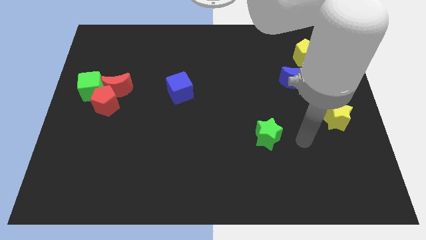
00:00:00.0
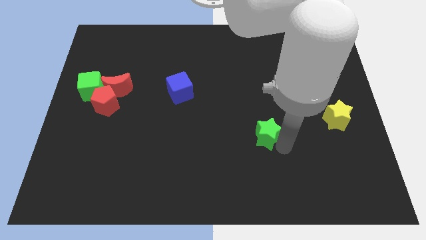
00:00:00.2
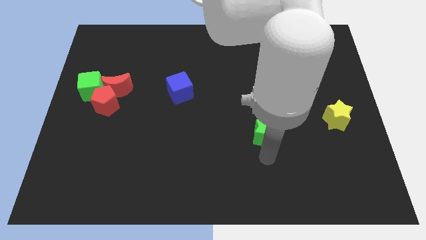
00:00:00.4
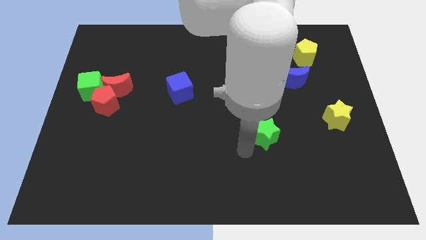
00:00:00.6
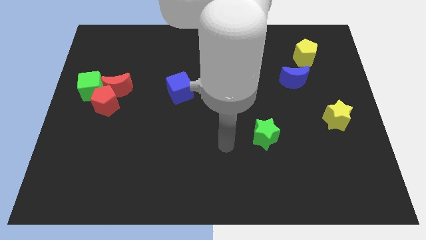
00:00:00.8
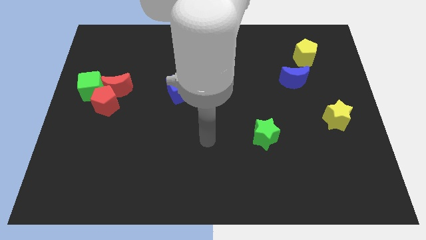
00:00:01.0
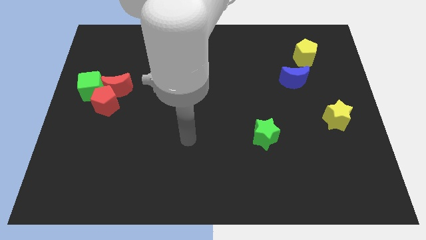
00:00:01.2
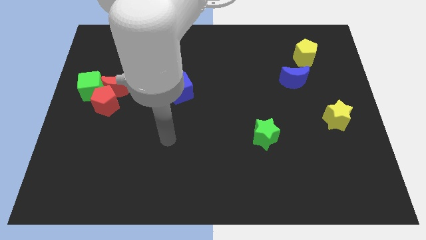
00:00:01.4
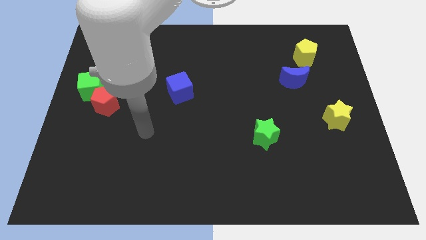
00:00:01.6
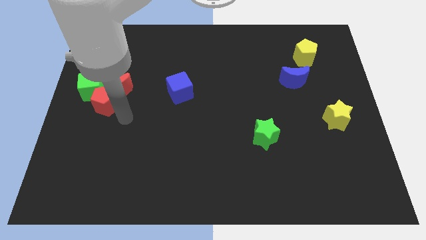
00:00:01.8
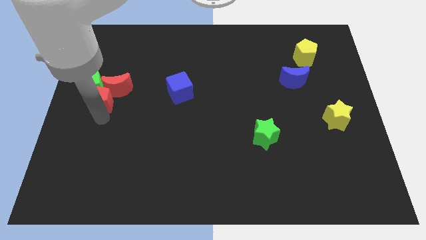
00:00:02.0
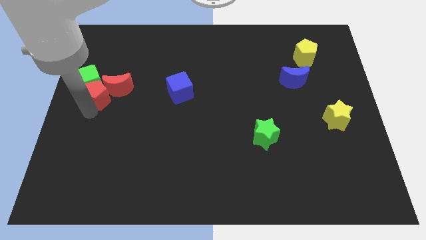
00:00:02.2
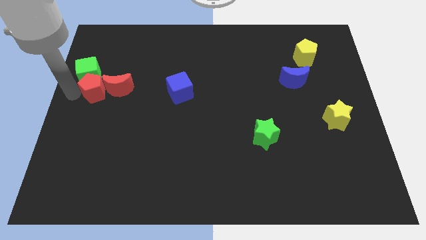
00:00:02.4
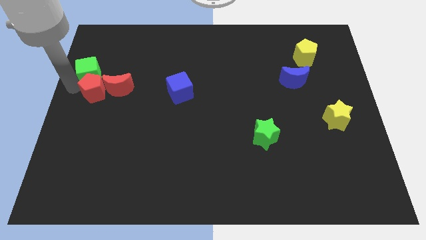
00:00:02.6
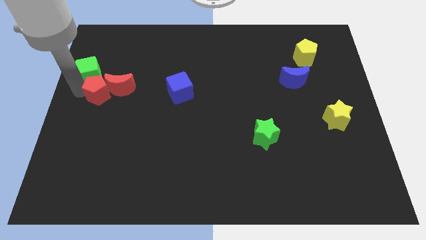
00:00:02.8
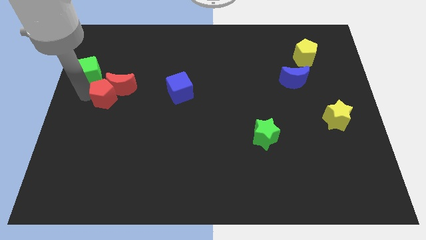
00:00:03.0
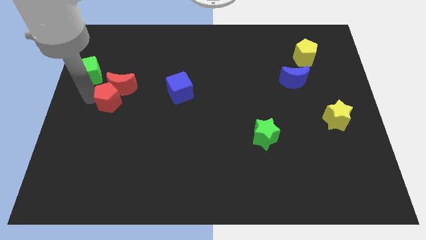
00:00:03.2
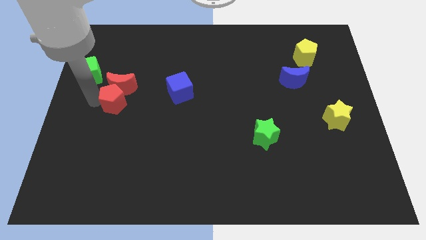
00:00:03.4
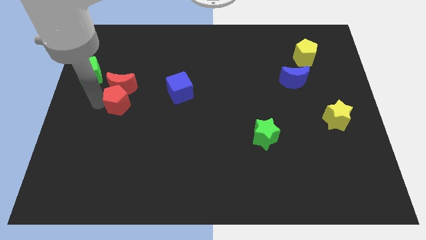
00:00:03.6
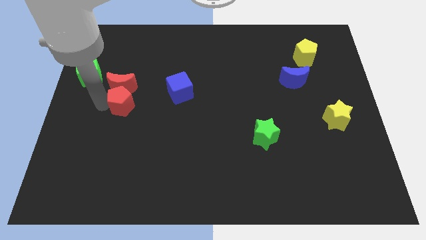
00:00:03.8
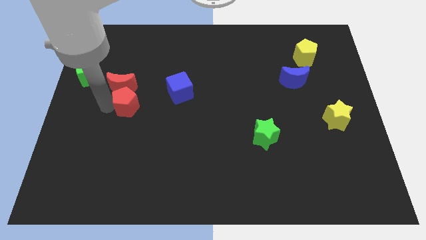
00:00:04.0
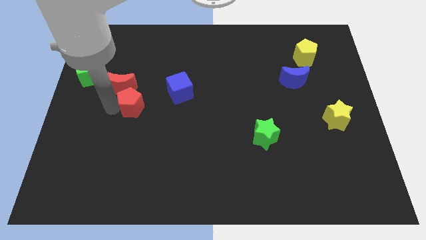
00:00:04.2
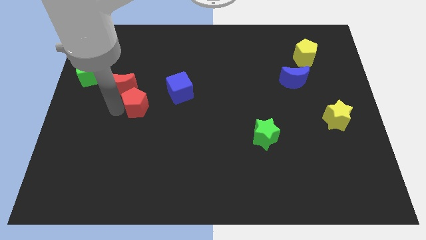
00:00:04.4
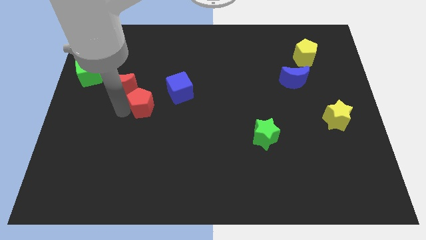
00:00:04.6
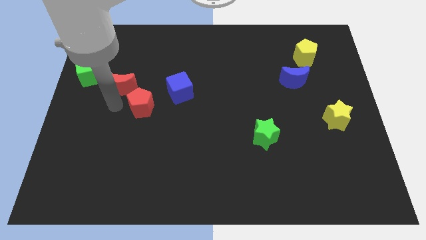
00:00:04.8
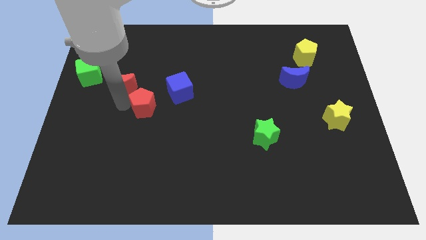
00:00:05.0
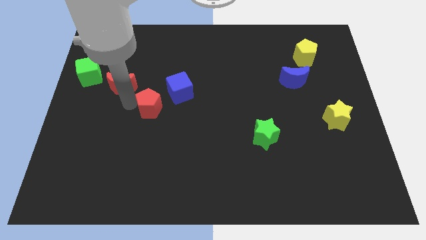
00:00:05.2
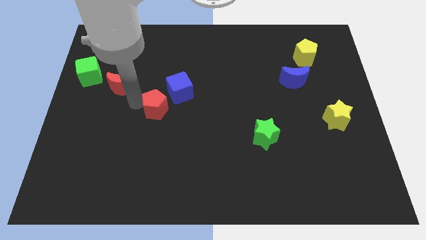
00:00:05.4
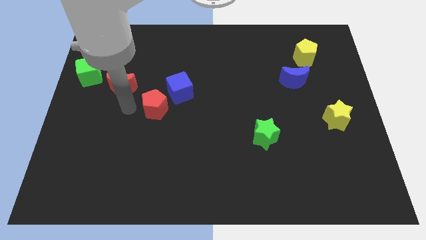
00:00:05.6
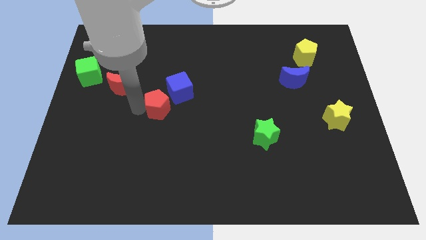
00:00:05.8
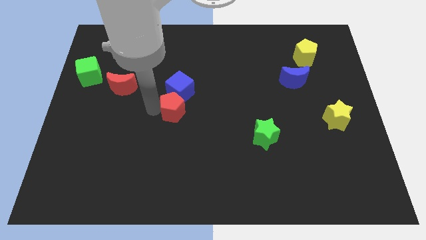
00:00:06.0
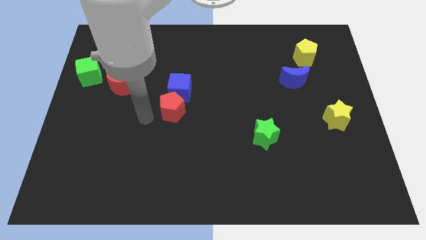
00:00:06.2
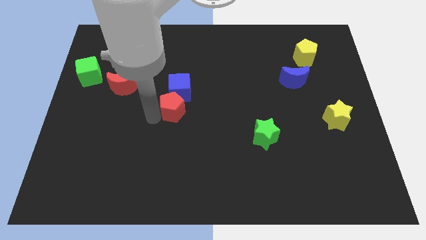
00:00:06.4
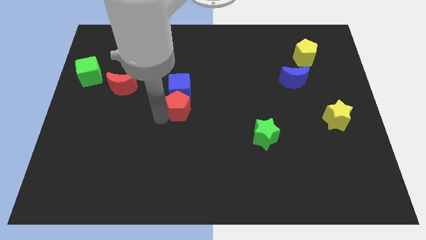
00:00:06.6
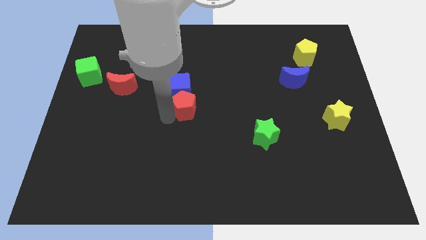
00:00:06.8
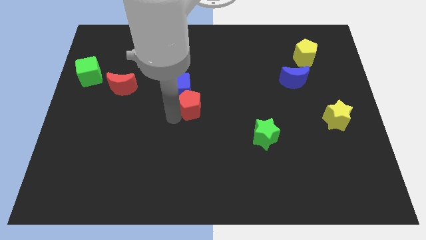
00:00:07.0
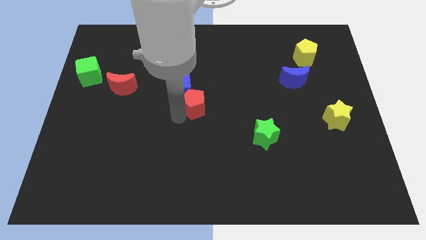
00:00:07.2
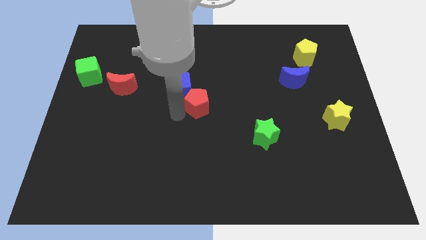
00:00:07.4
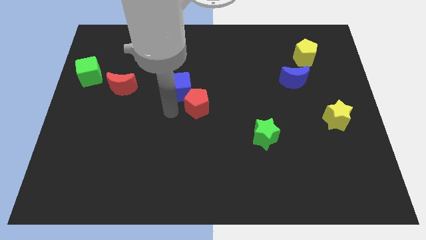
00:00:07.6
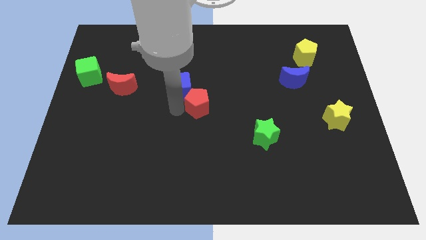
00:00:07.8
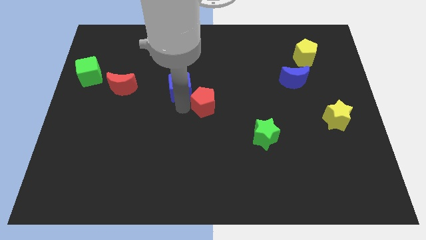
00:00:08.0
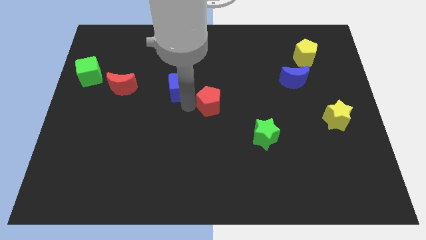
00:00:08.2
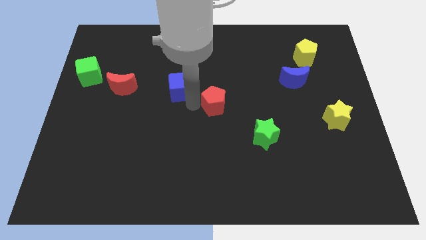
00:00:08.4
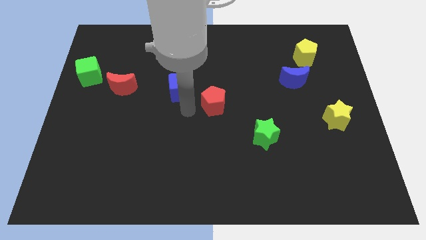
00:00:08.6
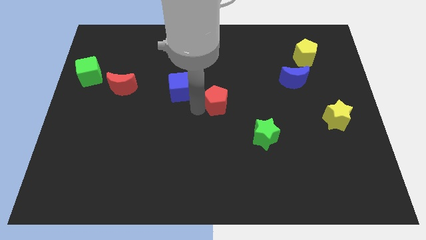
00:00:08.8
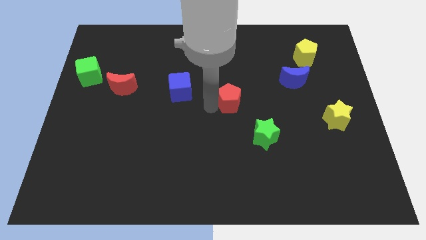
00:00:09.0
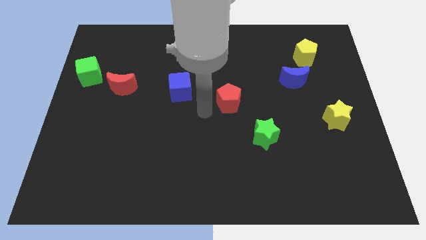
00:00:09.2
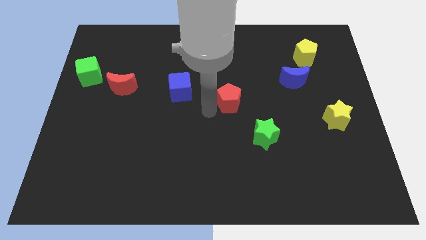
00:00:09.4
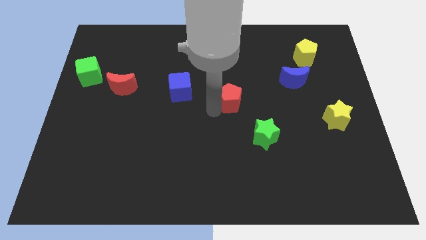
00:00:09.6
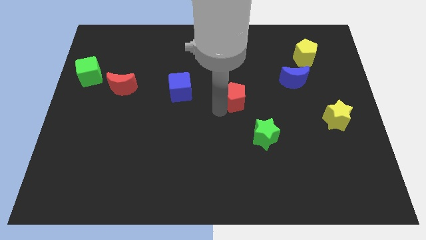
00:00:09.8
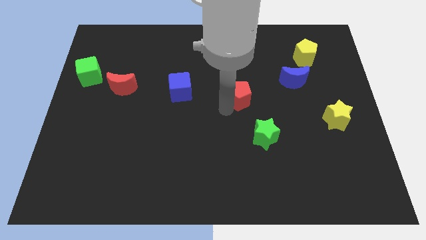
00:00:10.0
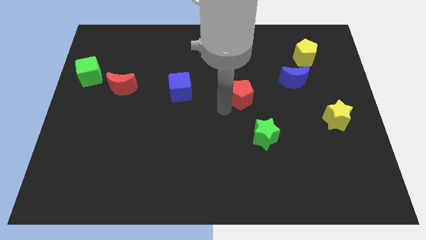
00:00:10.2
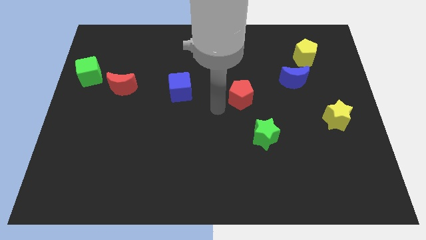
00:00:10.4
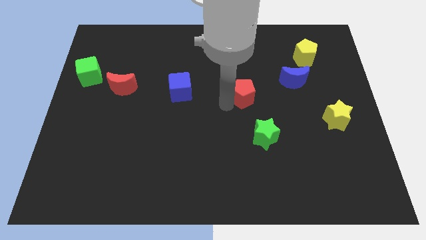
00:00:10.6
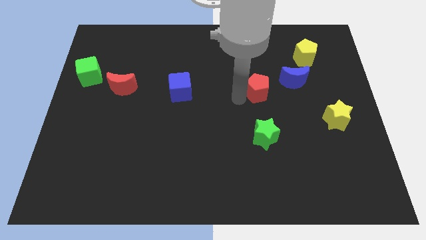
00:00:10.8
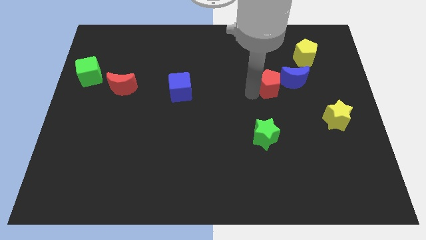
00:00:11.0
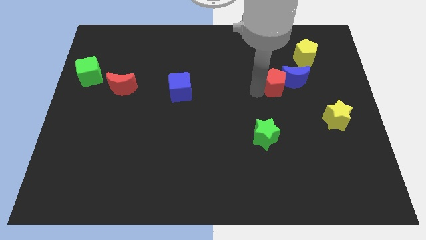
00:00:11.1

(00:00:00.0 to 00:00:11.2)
slide the red pentagon to the blue moon

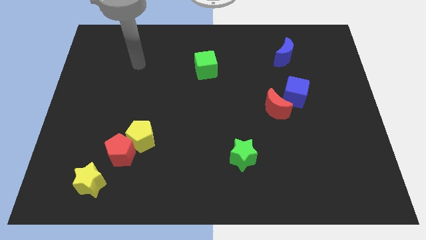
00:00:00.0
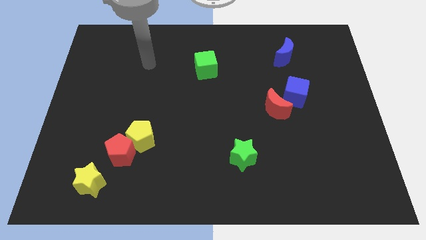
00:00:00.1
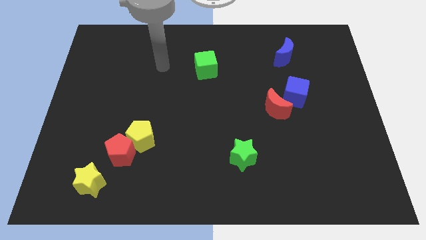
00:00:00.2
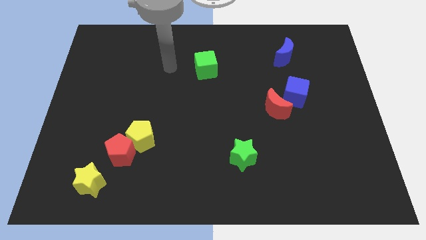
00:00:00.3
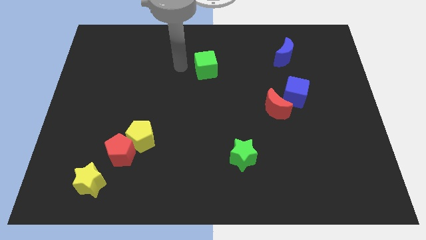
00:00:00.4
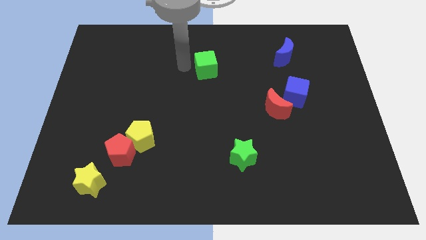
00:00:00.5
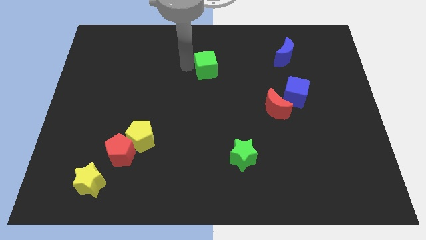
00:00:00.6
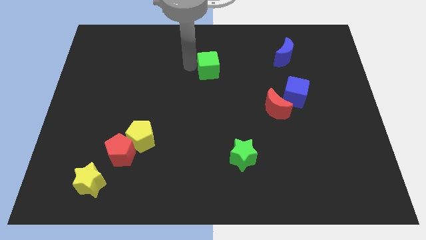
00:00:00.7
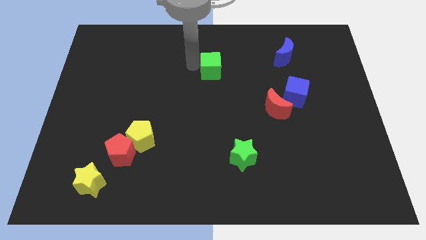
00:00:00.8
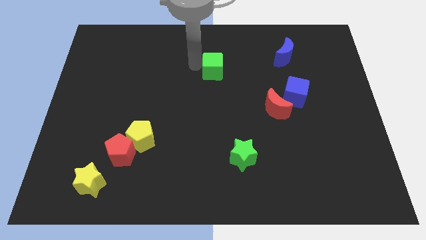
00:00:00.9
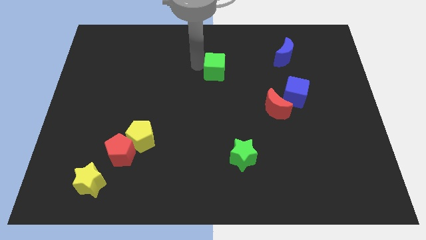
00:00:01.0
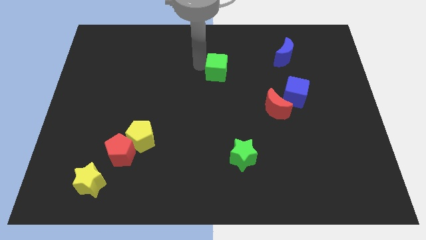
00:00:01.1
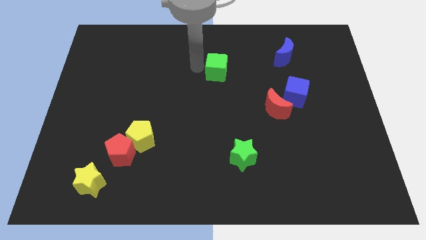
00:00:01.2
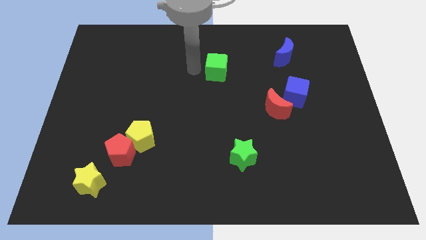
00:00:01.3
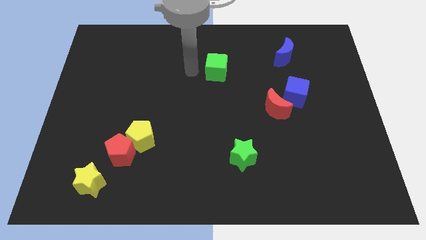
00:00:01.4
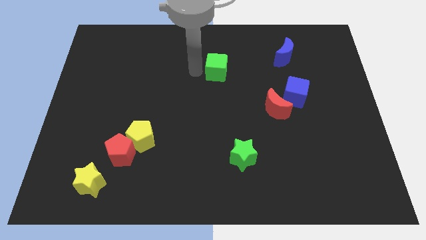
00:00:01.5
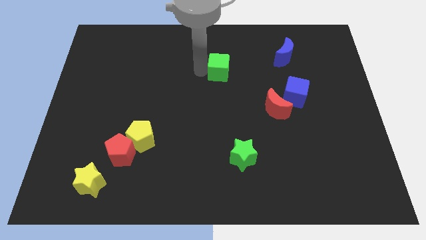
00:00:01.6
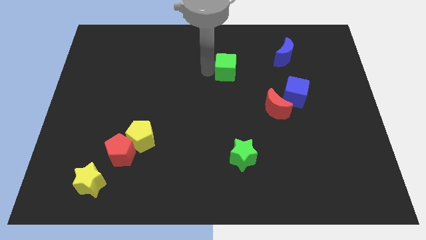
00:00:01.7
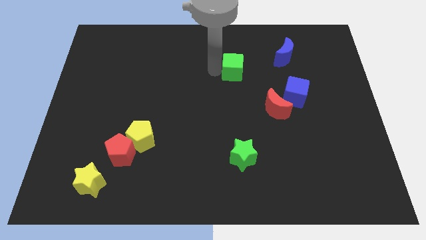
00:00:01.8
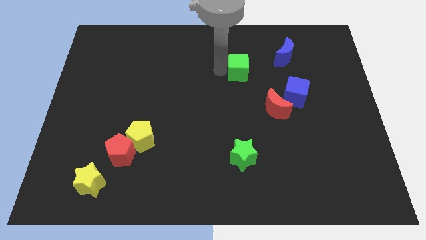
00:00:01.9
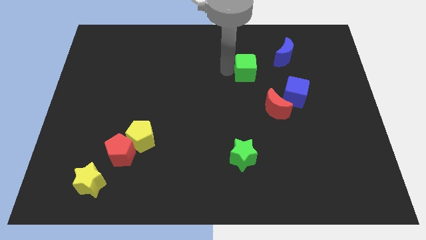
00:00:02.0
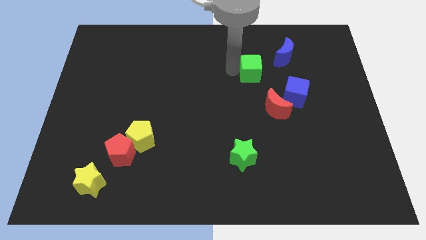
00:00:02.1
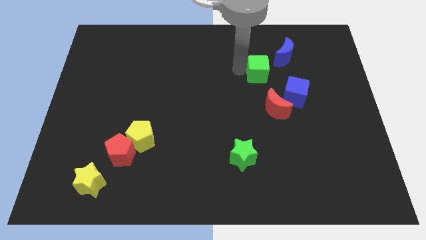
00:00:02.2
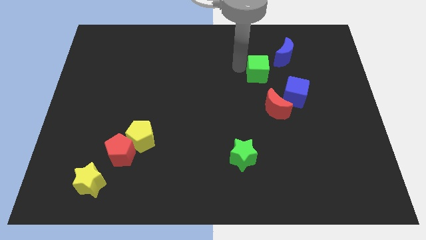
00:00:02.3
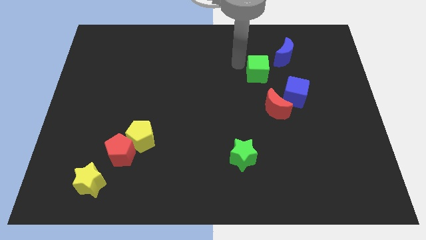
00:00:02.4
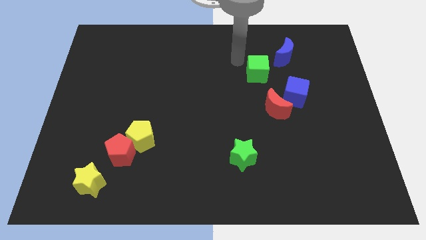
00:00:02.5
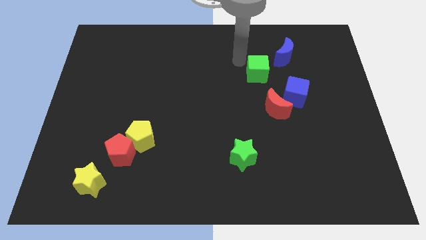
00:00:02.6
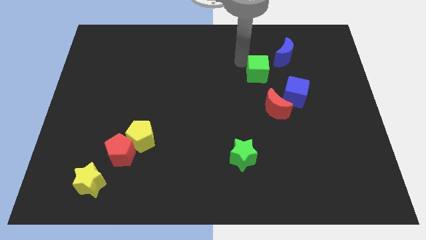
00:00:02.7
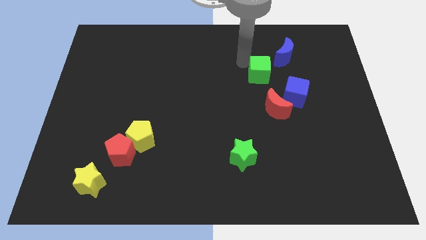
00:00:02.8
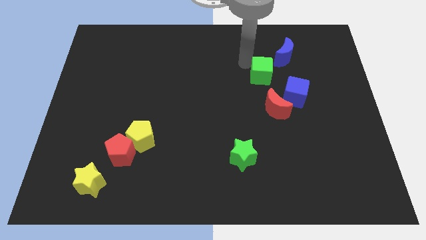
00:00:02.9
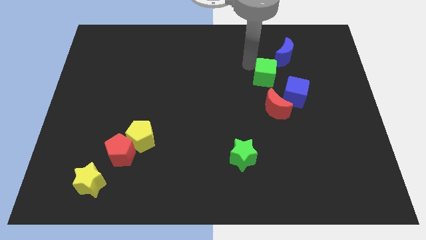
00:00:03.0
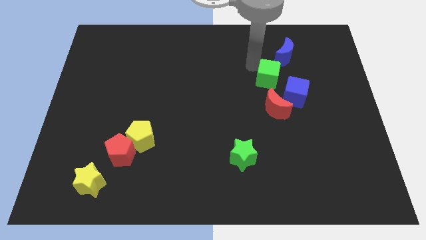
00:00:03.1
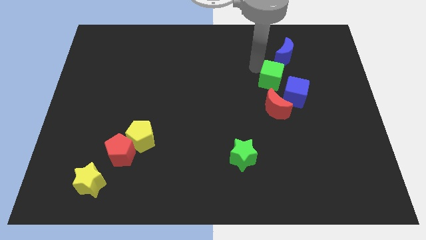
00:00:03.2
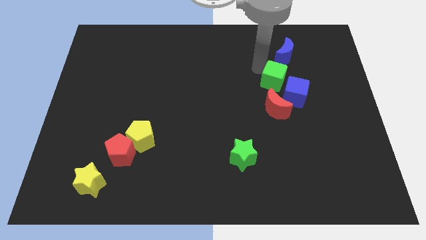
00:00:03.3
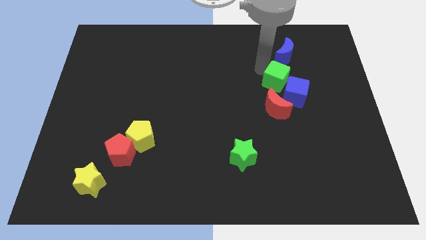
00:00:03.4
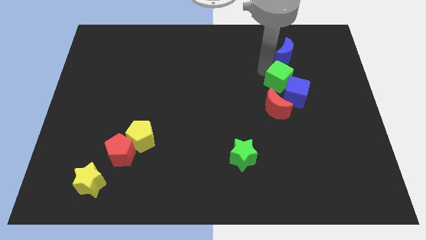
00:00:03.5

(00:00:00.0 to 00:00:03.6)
push the green cube next to the blue cube
